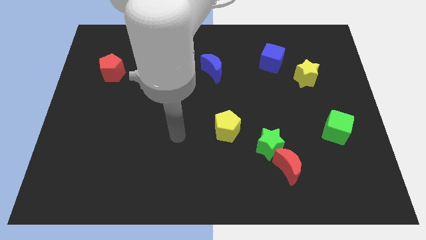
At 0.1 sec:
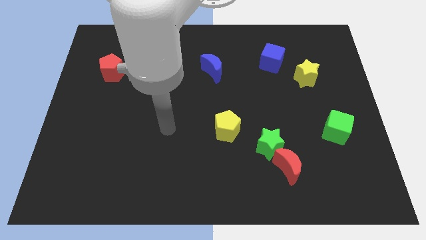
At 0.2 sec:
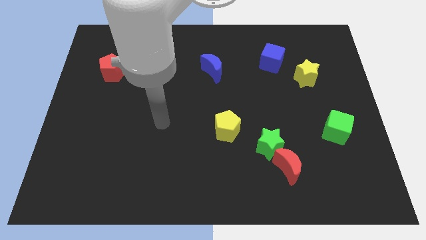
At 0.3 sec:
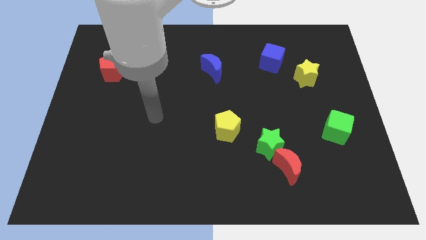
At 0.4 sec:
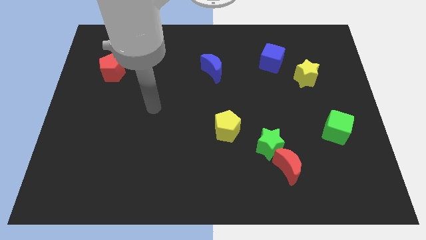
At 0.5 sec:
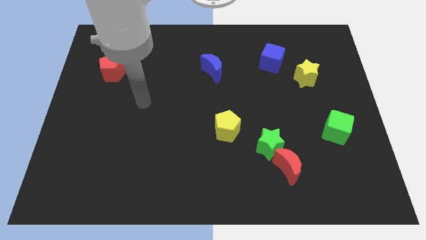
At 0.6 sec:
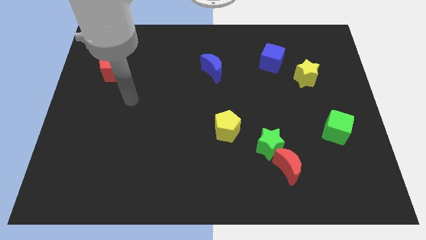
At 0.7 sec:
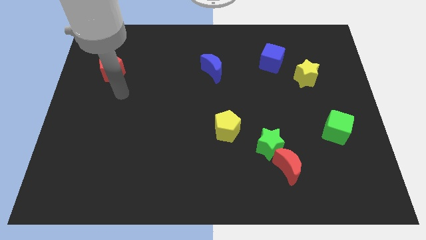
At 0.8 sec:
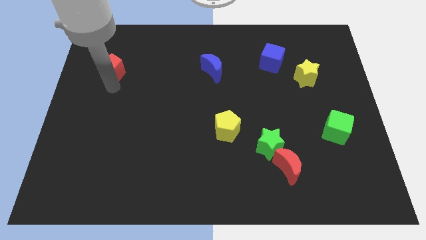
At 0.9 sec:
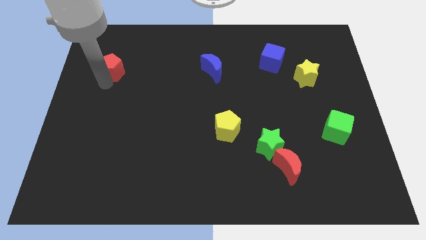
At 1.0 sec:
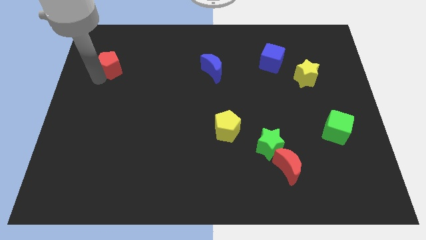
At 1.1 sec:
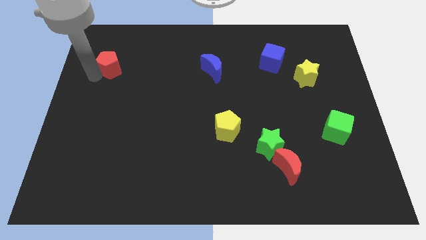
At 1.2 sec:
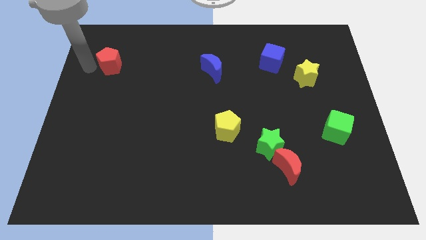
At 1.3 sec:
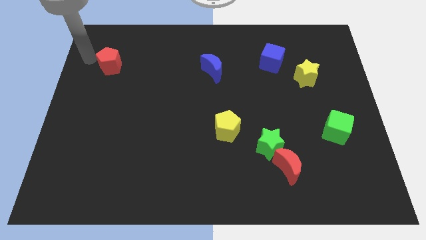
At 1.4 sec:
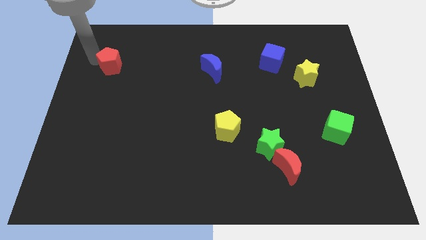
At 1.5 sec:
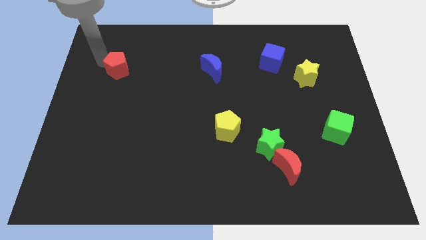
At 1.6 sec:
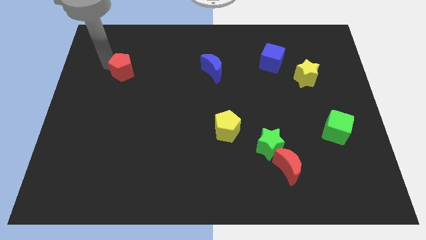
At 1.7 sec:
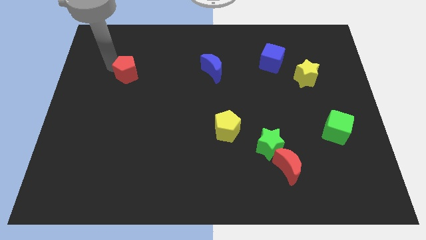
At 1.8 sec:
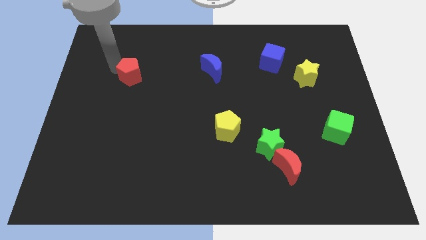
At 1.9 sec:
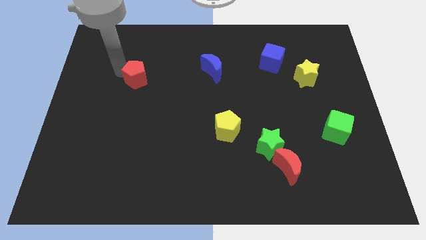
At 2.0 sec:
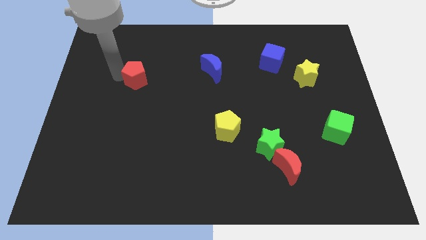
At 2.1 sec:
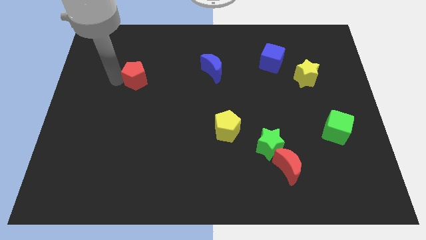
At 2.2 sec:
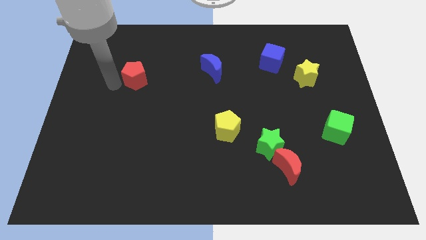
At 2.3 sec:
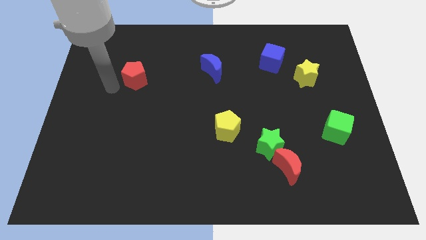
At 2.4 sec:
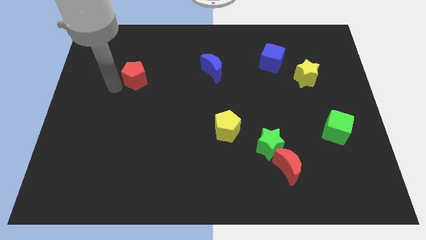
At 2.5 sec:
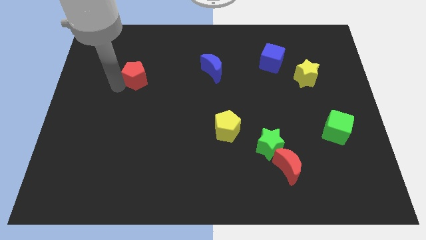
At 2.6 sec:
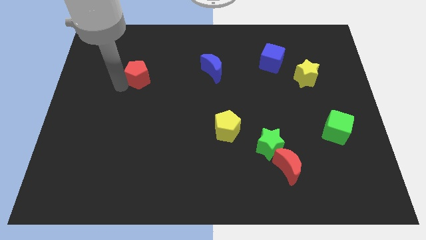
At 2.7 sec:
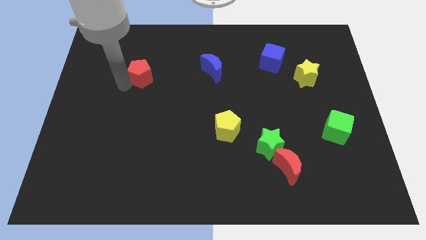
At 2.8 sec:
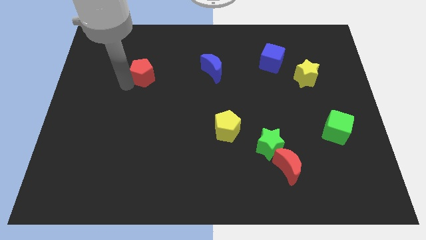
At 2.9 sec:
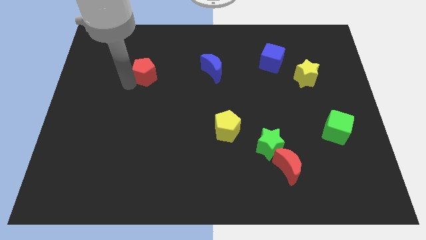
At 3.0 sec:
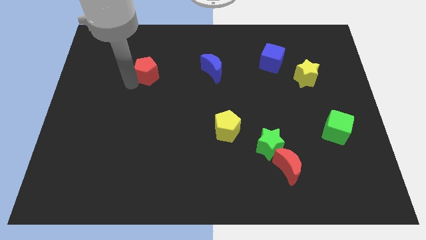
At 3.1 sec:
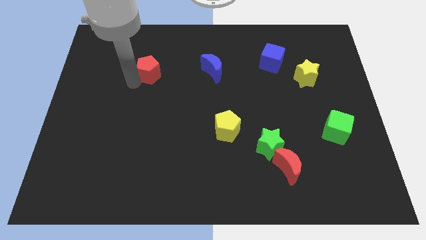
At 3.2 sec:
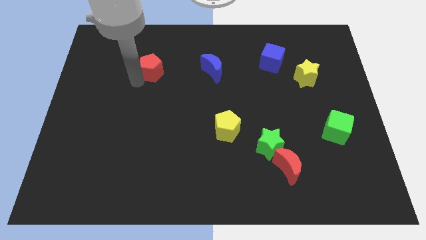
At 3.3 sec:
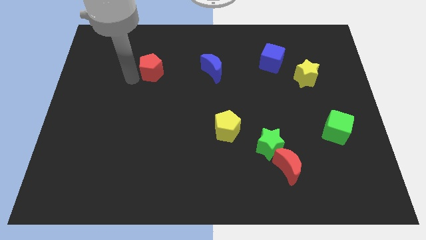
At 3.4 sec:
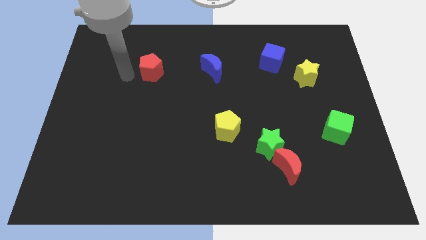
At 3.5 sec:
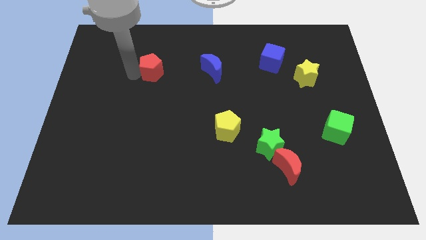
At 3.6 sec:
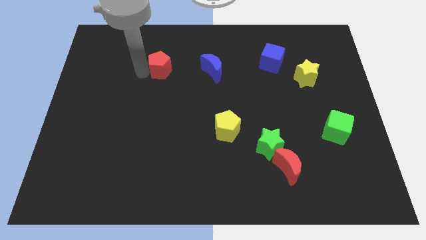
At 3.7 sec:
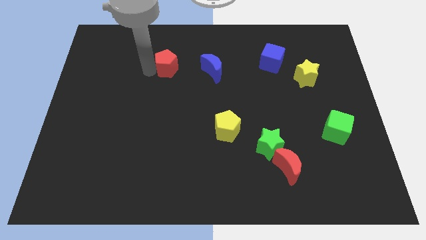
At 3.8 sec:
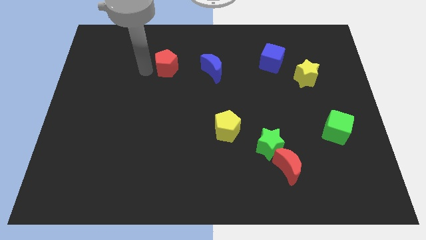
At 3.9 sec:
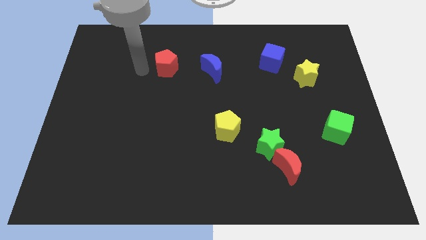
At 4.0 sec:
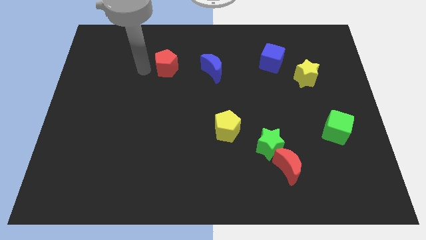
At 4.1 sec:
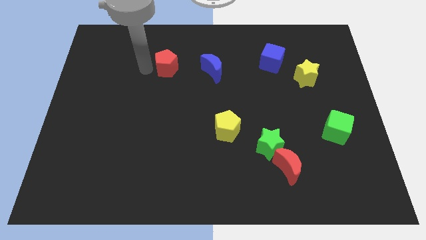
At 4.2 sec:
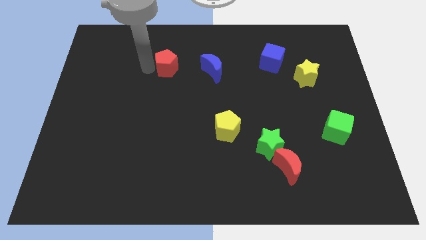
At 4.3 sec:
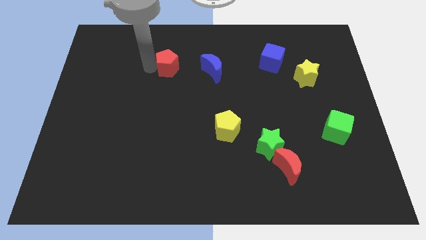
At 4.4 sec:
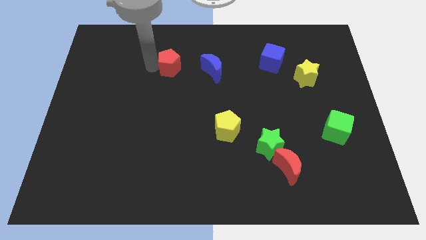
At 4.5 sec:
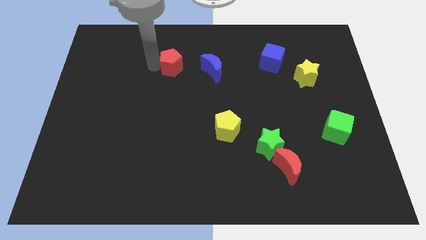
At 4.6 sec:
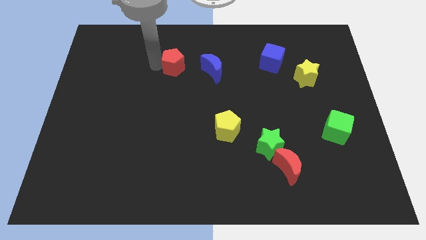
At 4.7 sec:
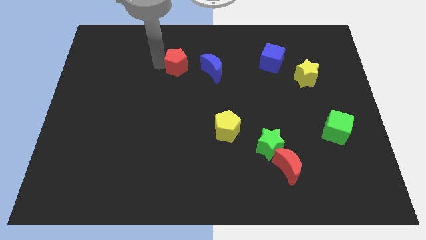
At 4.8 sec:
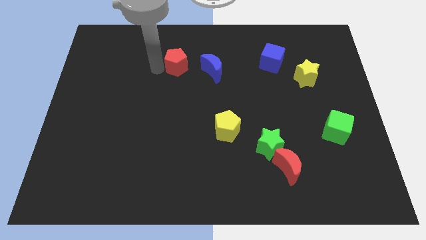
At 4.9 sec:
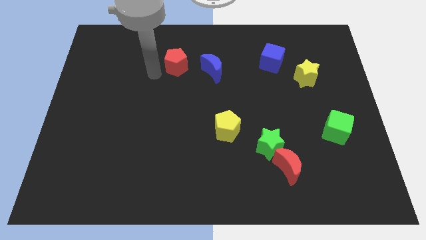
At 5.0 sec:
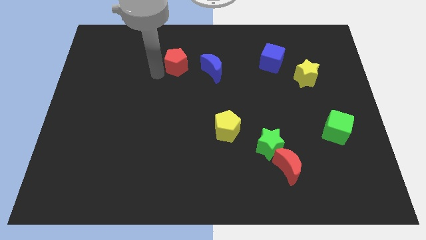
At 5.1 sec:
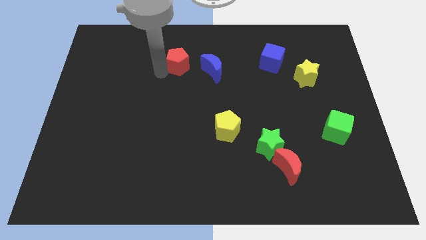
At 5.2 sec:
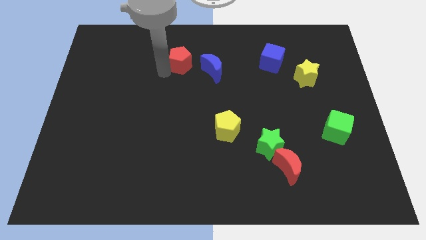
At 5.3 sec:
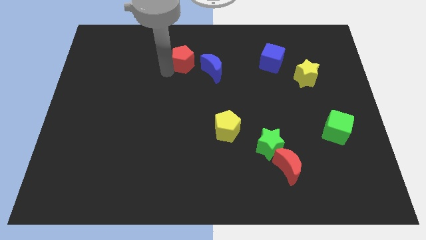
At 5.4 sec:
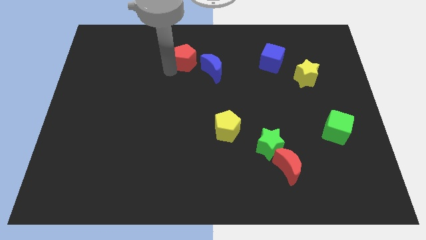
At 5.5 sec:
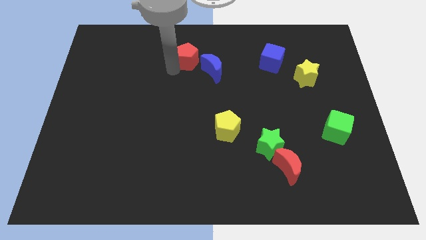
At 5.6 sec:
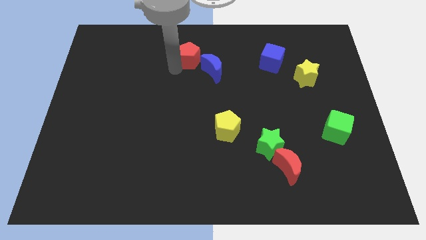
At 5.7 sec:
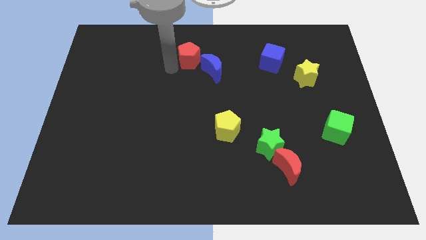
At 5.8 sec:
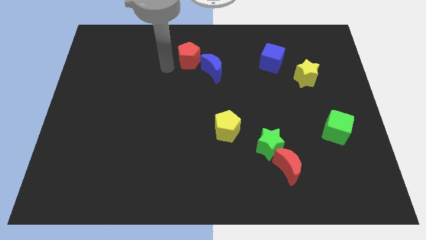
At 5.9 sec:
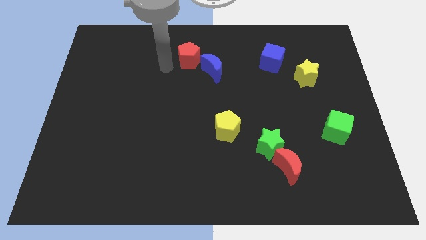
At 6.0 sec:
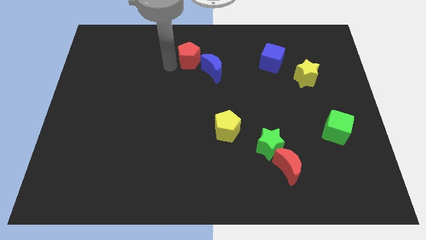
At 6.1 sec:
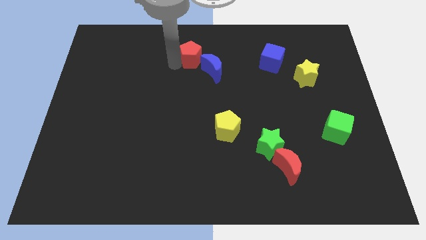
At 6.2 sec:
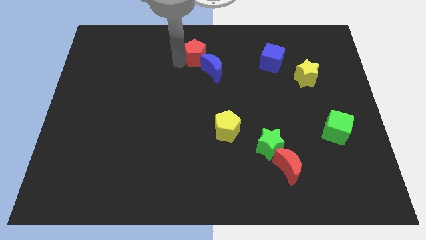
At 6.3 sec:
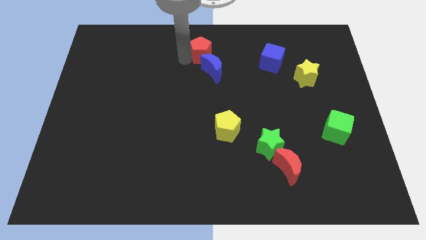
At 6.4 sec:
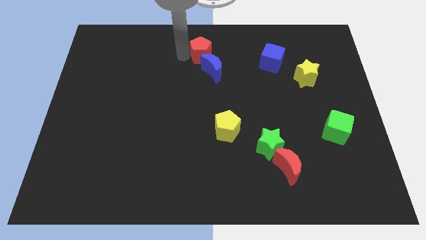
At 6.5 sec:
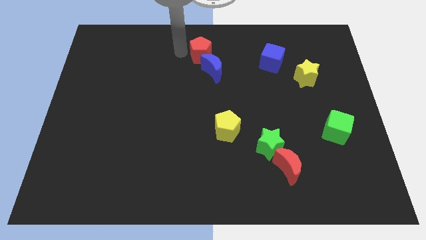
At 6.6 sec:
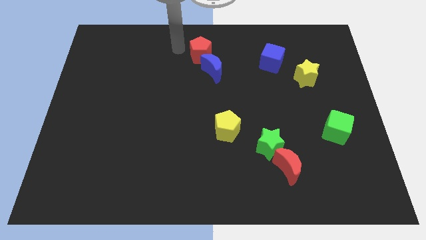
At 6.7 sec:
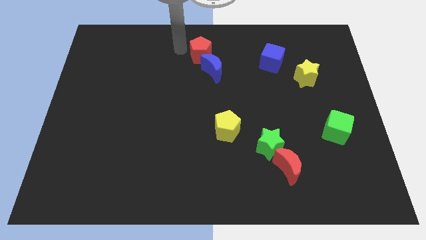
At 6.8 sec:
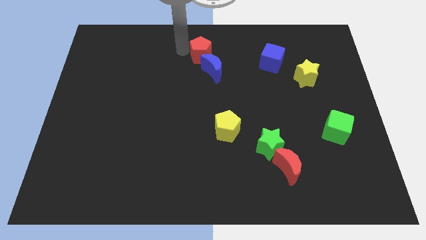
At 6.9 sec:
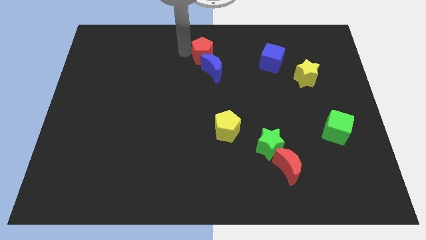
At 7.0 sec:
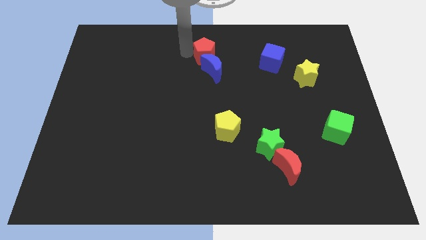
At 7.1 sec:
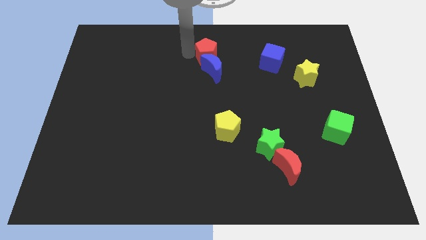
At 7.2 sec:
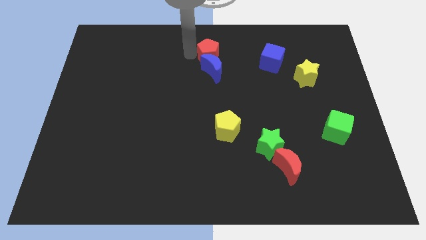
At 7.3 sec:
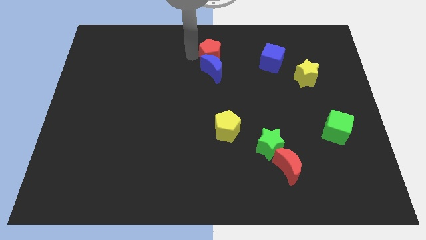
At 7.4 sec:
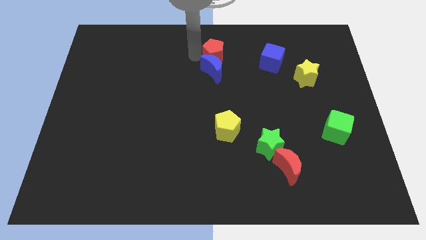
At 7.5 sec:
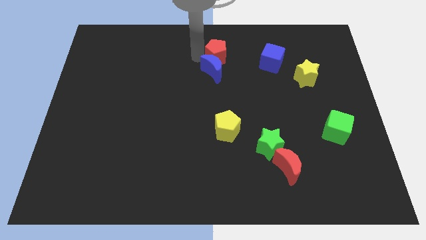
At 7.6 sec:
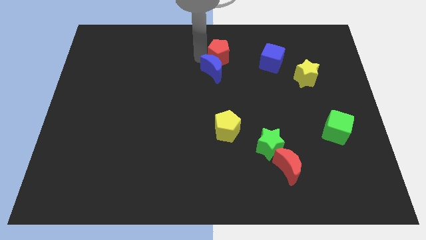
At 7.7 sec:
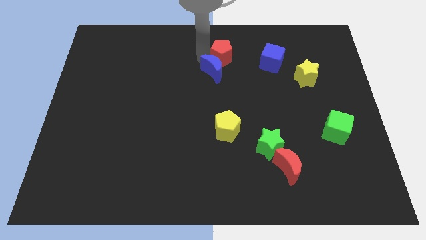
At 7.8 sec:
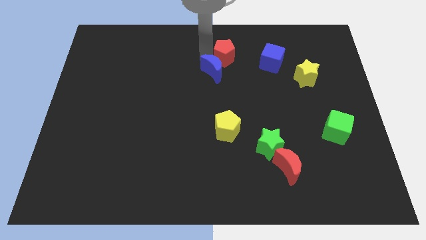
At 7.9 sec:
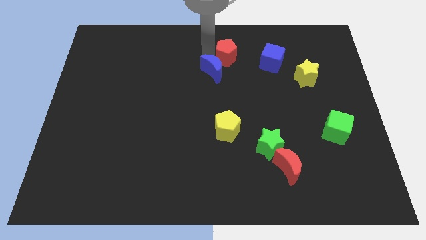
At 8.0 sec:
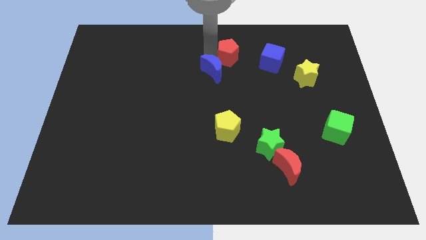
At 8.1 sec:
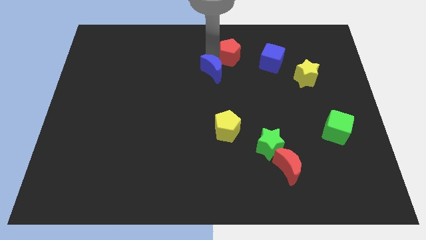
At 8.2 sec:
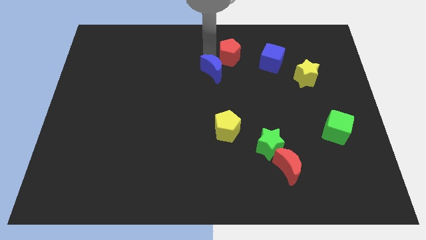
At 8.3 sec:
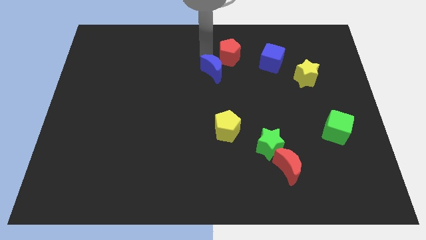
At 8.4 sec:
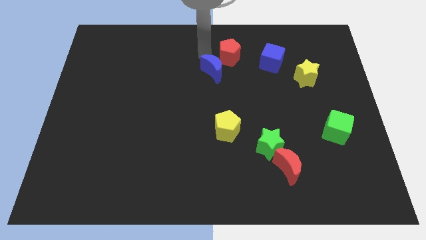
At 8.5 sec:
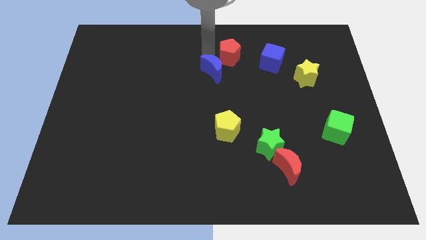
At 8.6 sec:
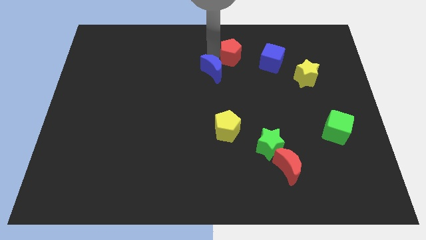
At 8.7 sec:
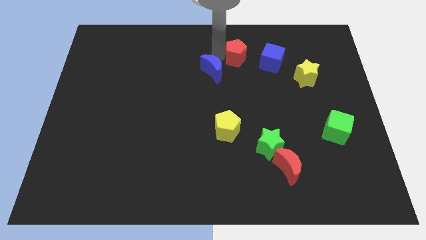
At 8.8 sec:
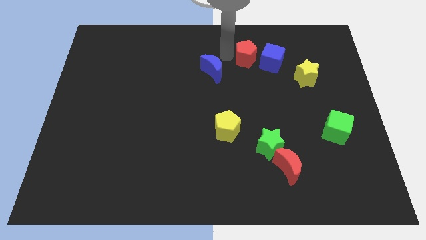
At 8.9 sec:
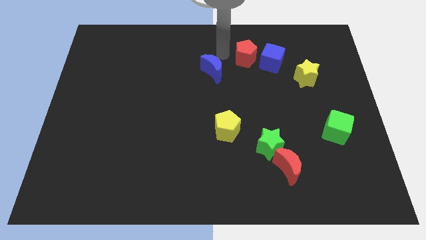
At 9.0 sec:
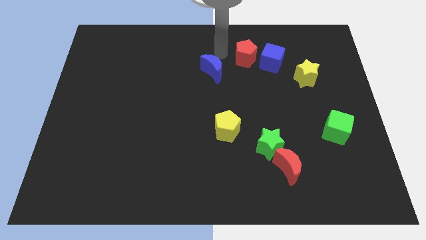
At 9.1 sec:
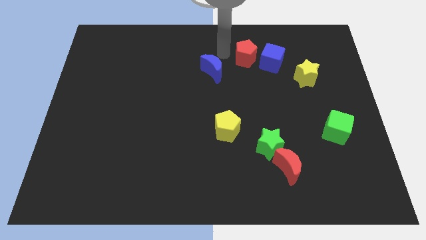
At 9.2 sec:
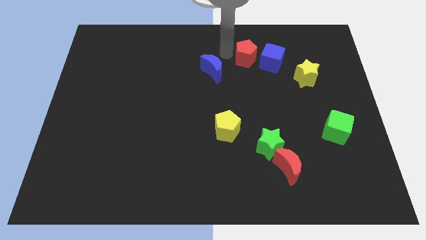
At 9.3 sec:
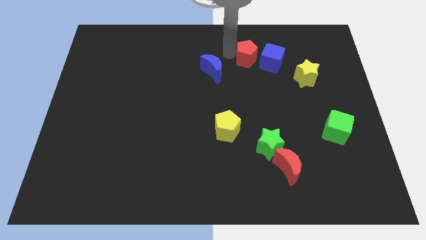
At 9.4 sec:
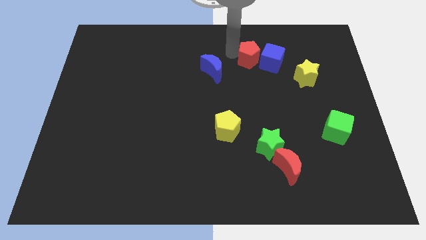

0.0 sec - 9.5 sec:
push the red pentagon to the blue cube
